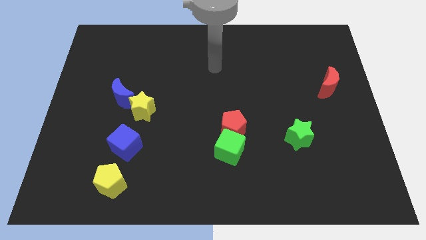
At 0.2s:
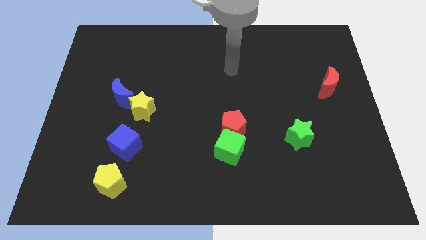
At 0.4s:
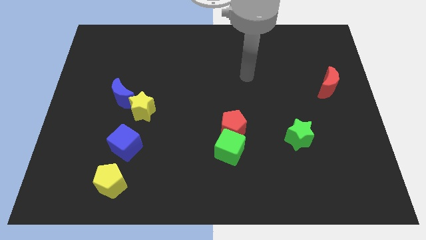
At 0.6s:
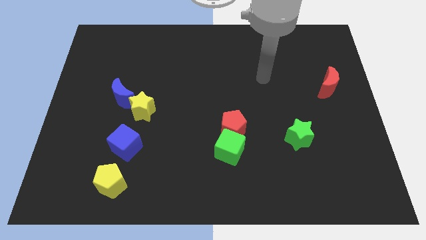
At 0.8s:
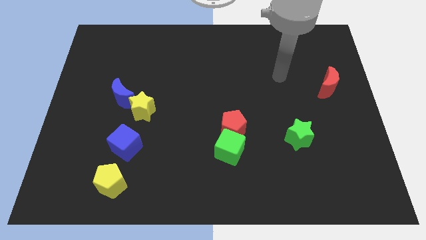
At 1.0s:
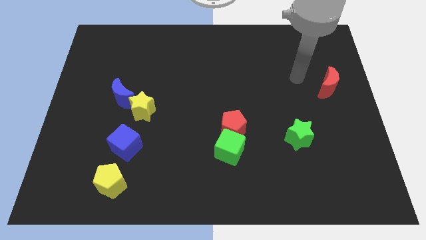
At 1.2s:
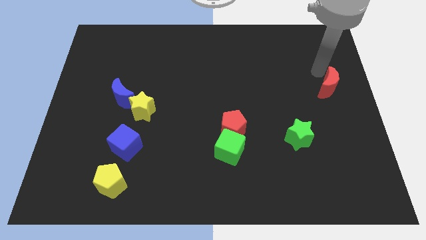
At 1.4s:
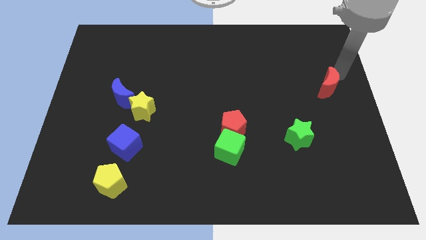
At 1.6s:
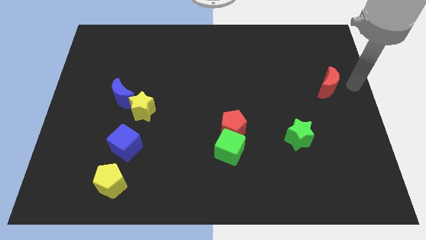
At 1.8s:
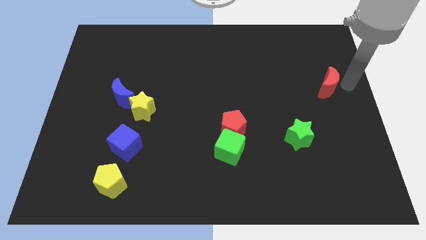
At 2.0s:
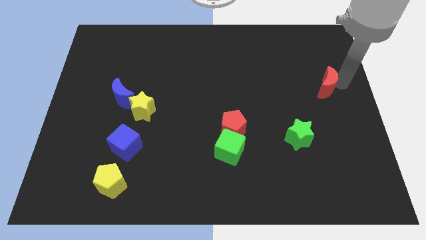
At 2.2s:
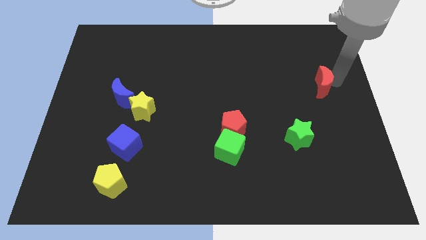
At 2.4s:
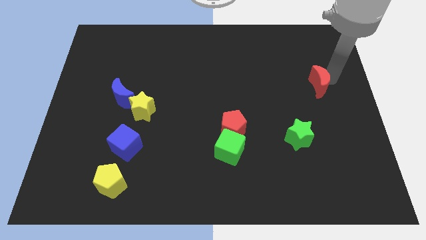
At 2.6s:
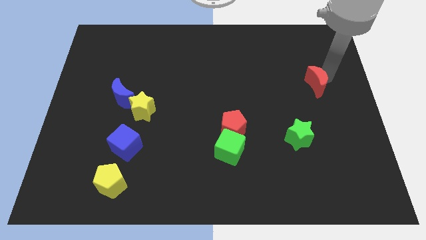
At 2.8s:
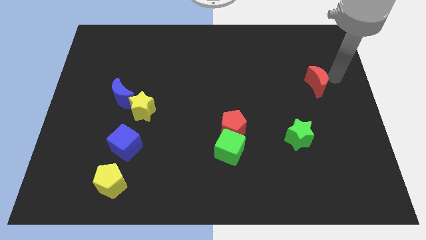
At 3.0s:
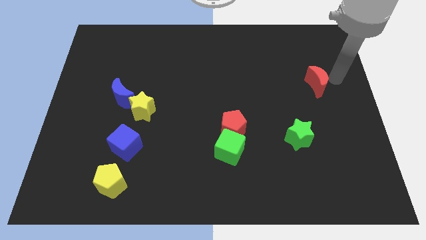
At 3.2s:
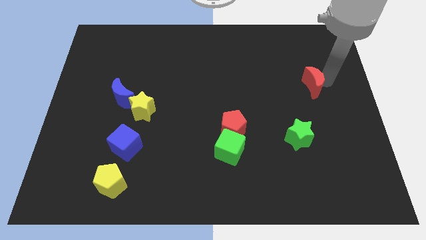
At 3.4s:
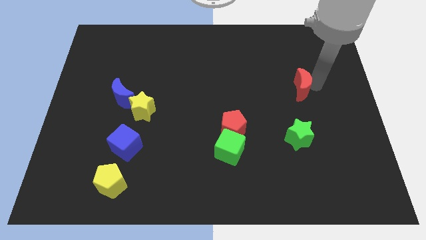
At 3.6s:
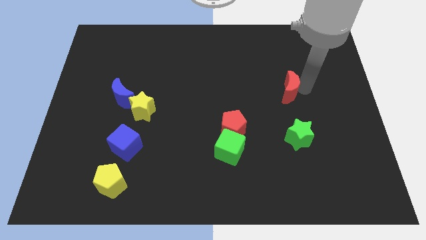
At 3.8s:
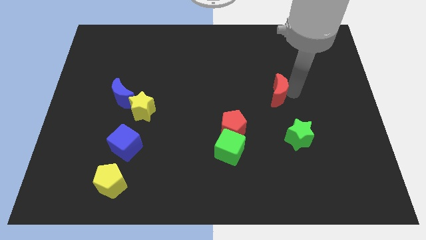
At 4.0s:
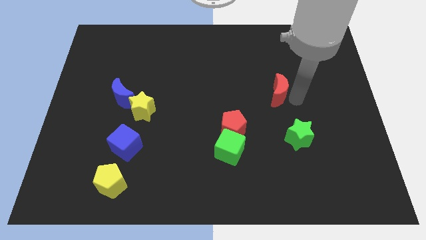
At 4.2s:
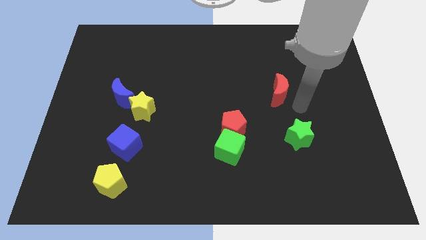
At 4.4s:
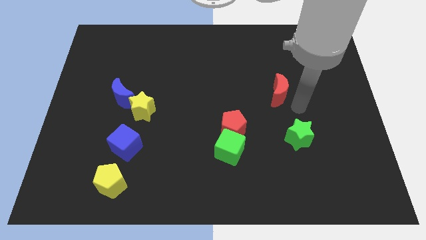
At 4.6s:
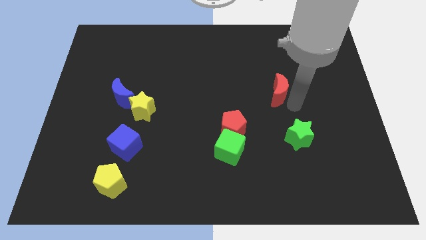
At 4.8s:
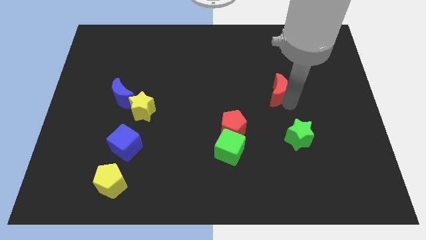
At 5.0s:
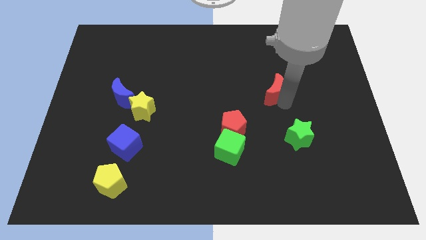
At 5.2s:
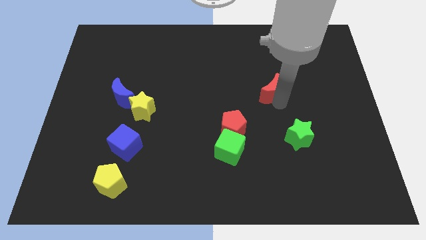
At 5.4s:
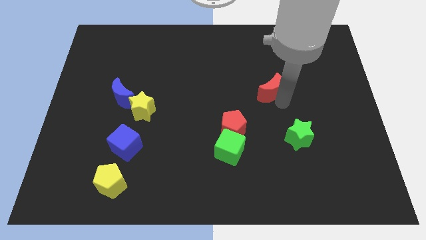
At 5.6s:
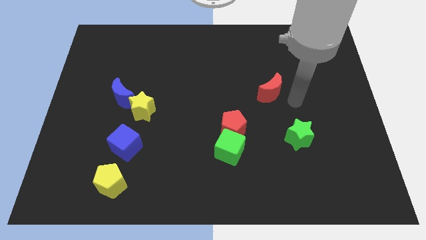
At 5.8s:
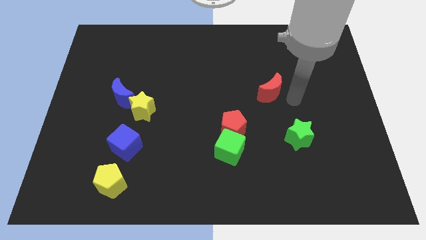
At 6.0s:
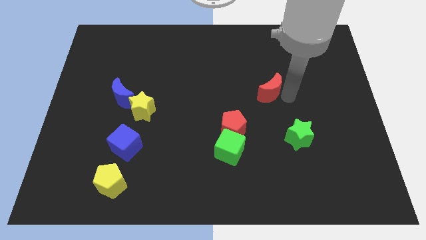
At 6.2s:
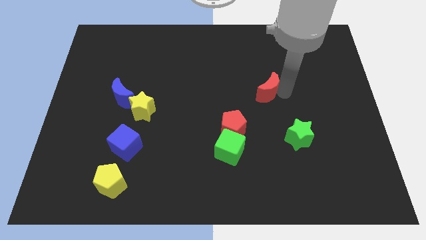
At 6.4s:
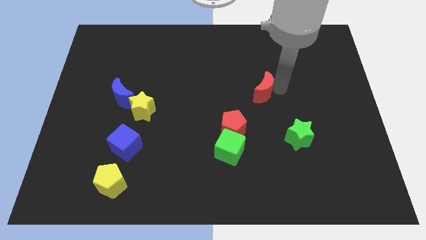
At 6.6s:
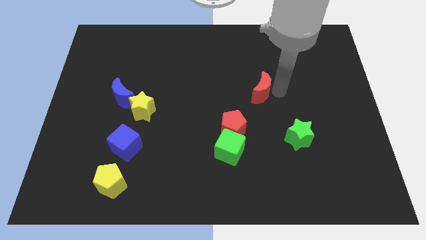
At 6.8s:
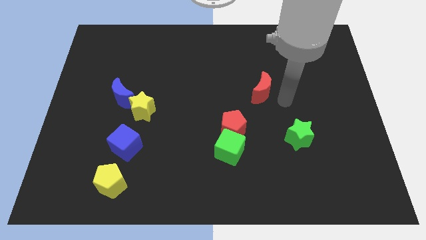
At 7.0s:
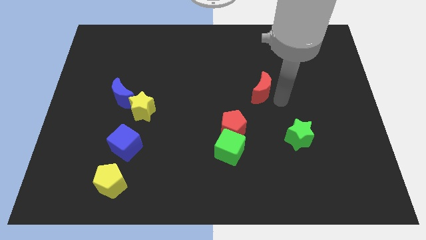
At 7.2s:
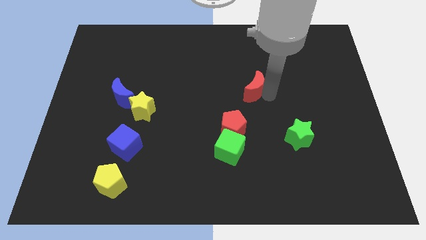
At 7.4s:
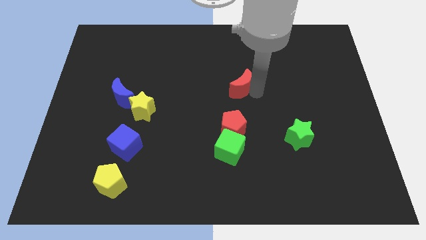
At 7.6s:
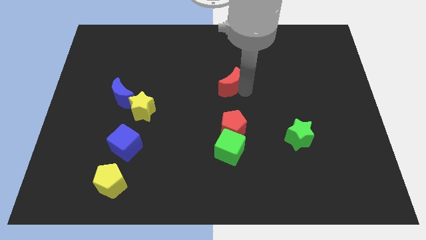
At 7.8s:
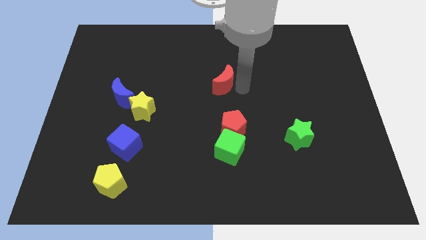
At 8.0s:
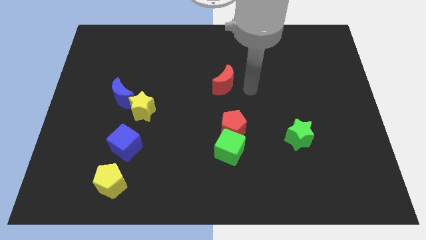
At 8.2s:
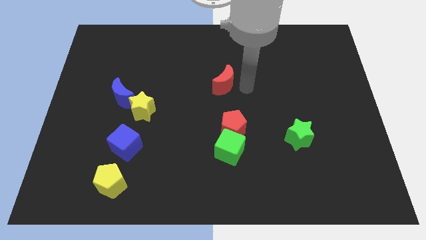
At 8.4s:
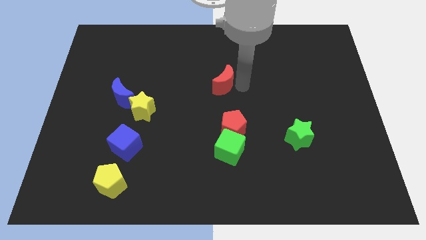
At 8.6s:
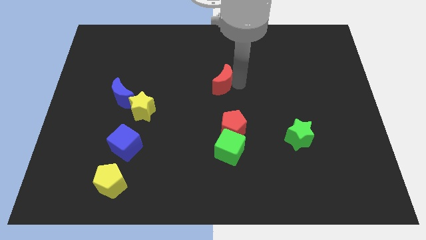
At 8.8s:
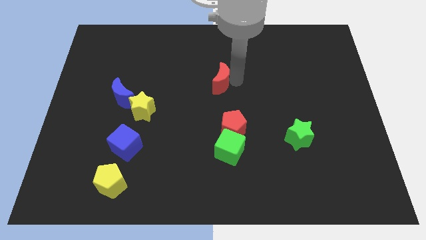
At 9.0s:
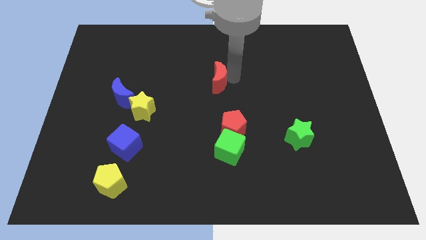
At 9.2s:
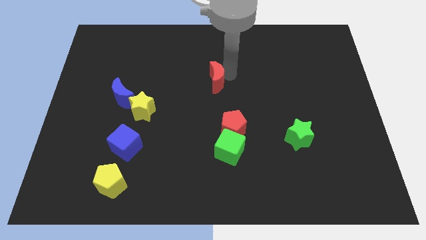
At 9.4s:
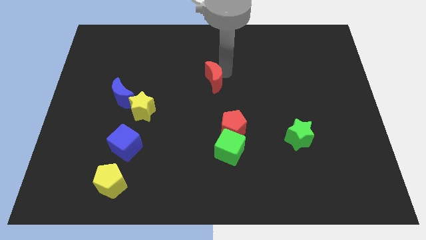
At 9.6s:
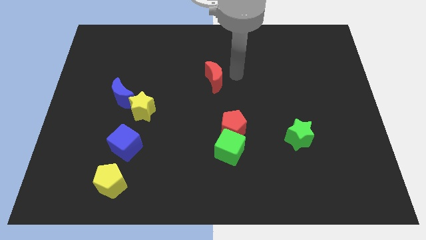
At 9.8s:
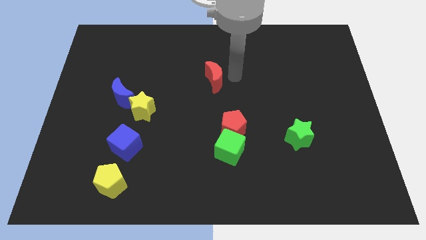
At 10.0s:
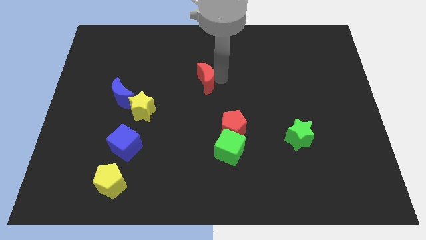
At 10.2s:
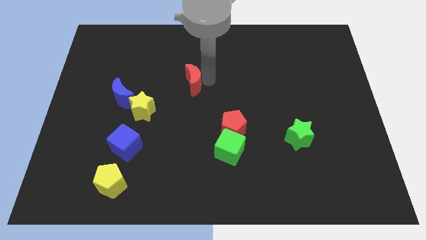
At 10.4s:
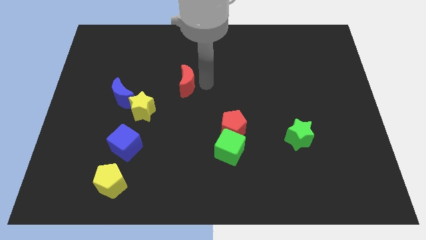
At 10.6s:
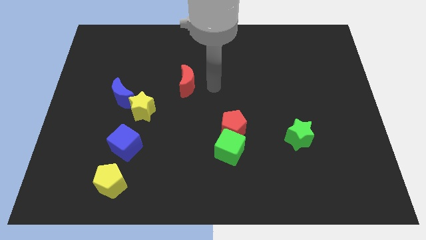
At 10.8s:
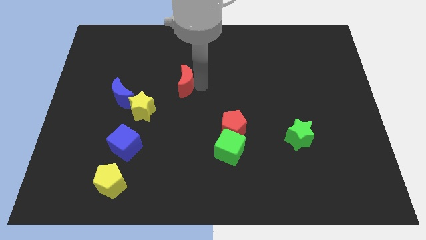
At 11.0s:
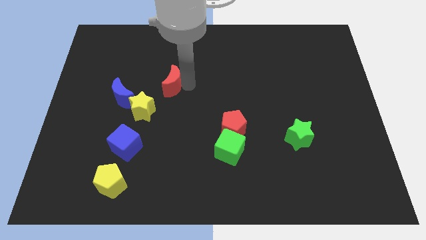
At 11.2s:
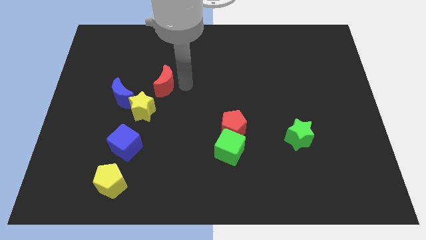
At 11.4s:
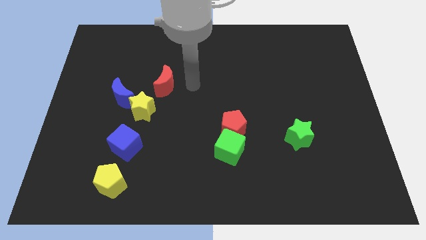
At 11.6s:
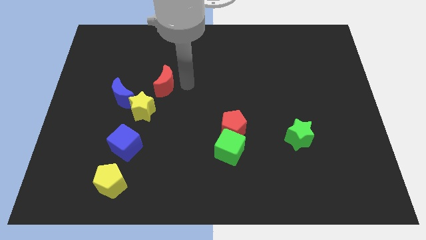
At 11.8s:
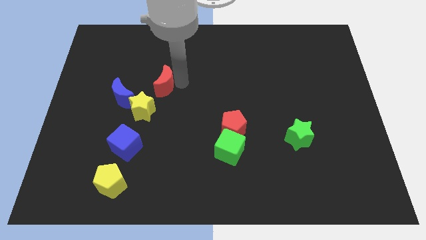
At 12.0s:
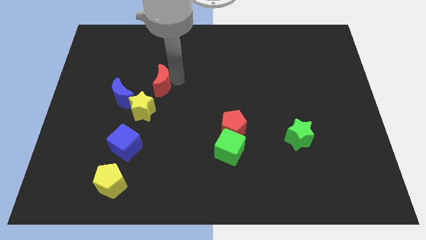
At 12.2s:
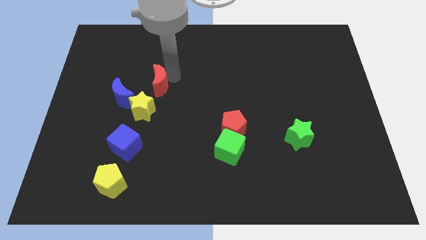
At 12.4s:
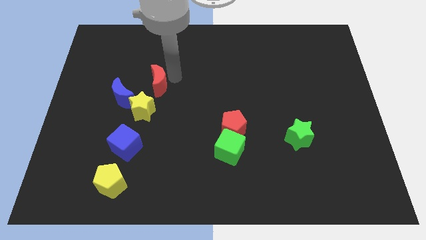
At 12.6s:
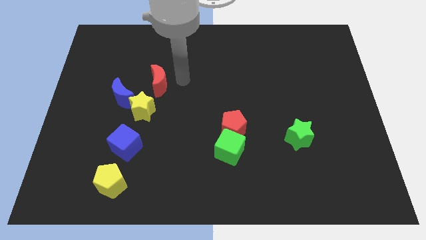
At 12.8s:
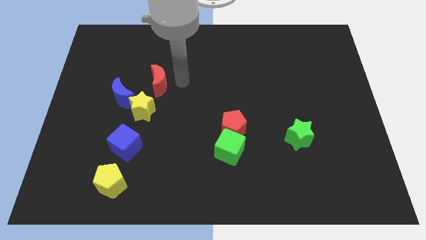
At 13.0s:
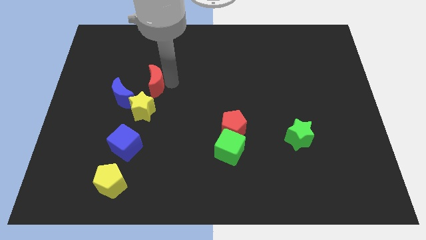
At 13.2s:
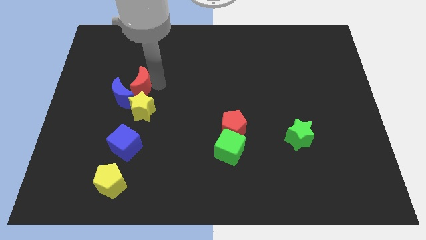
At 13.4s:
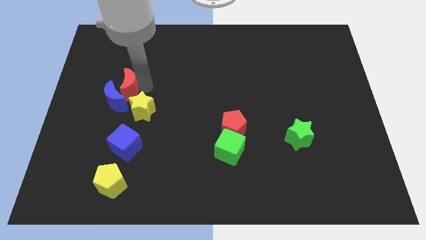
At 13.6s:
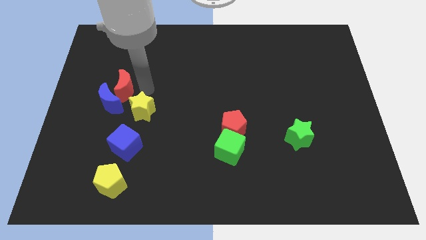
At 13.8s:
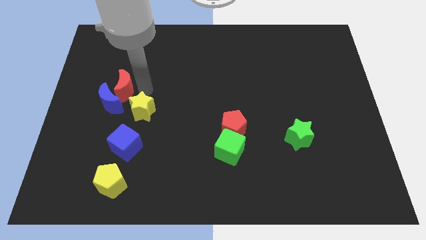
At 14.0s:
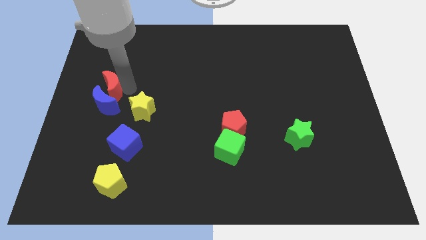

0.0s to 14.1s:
push the red moon to the top left side of the blue moon
